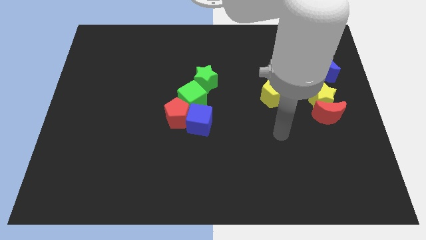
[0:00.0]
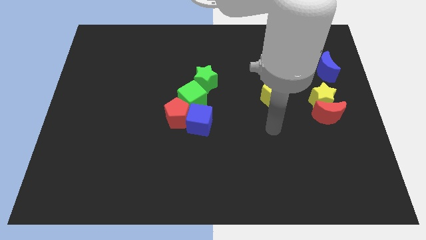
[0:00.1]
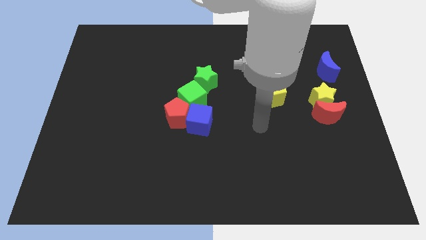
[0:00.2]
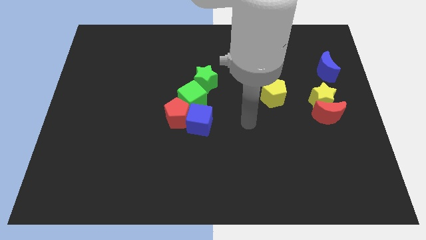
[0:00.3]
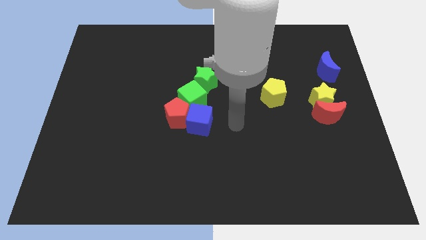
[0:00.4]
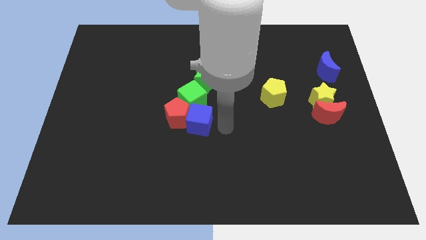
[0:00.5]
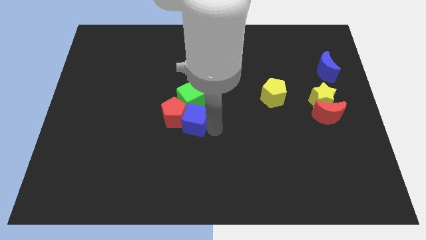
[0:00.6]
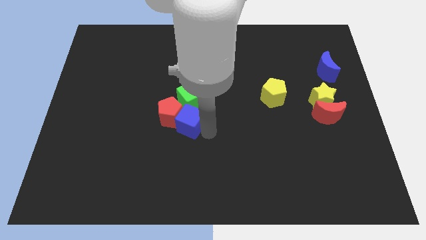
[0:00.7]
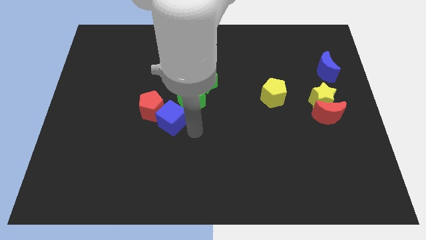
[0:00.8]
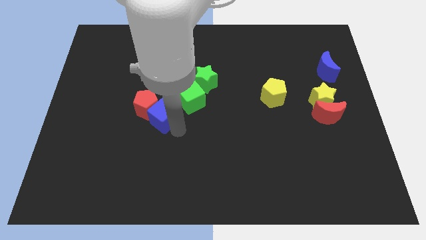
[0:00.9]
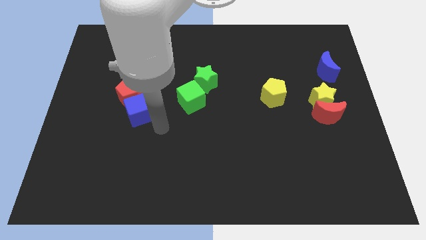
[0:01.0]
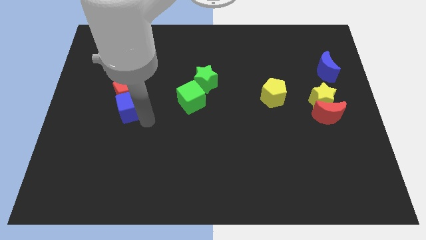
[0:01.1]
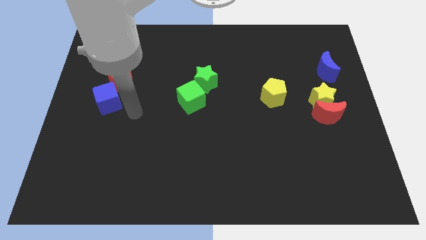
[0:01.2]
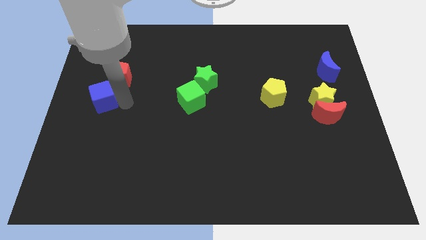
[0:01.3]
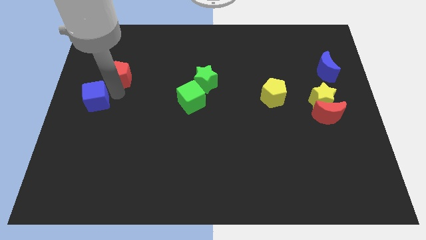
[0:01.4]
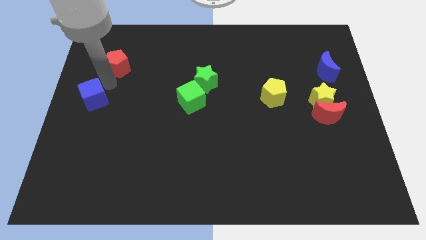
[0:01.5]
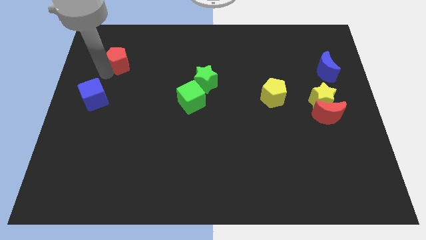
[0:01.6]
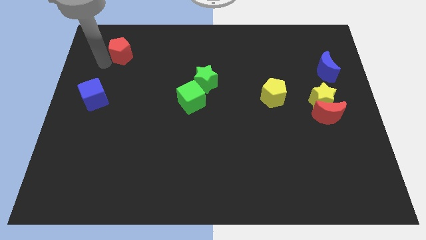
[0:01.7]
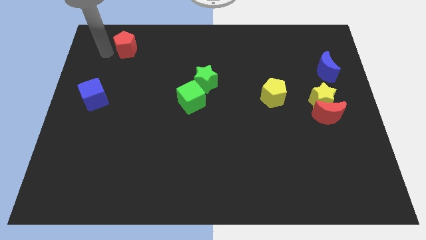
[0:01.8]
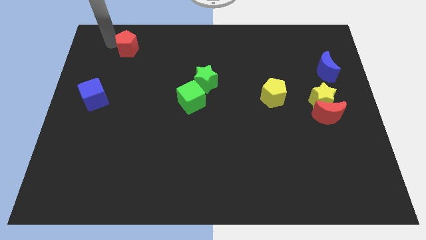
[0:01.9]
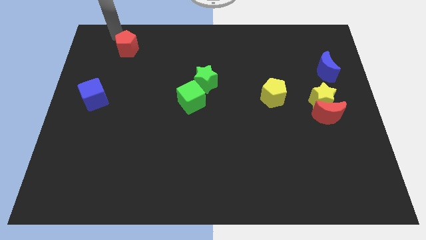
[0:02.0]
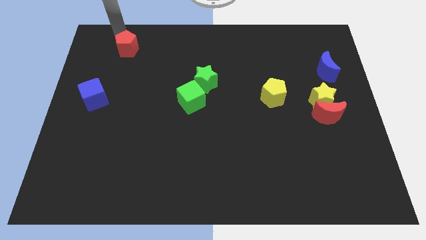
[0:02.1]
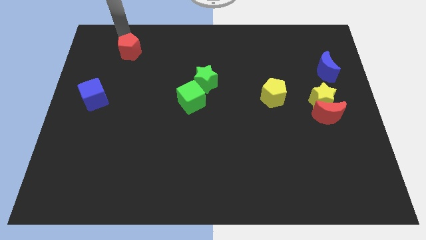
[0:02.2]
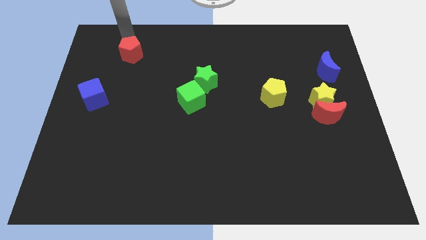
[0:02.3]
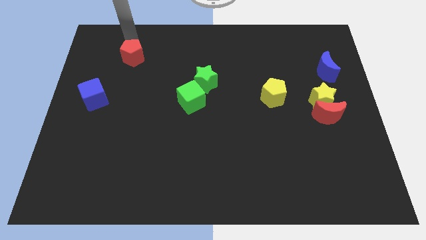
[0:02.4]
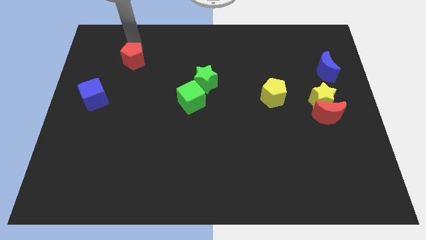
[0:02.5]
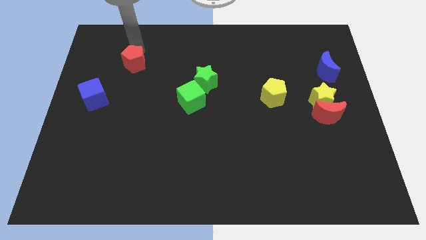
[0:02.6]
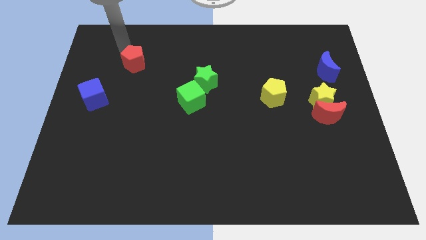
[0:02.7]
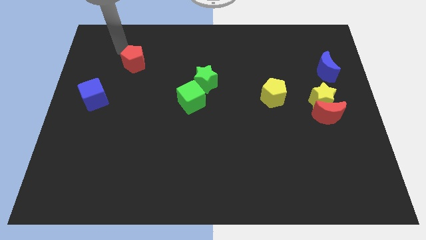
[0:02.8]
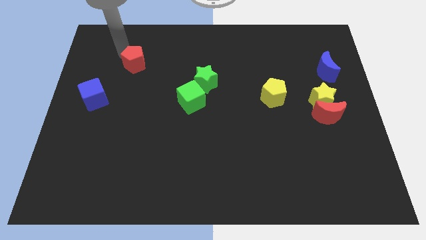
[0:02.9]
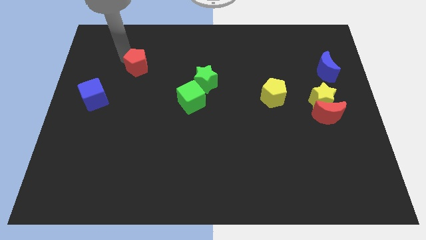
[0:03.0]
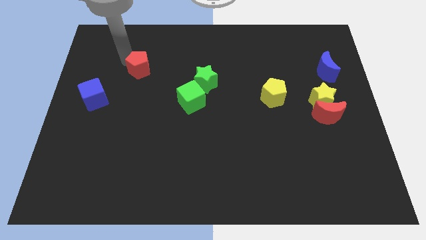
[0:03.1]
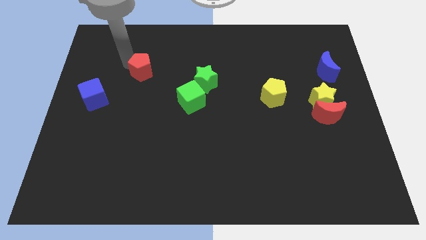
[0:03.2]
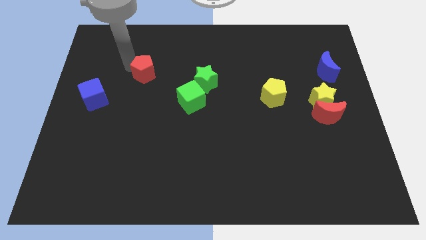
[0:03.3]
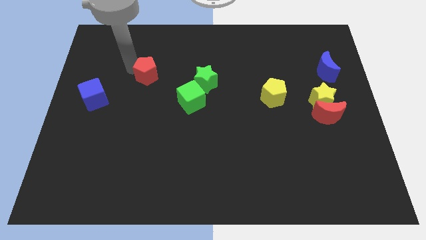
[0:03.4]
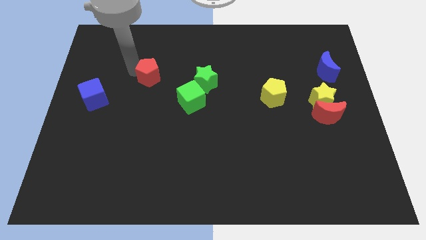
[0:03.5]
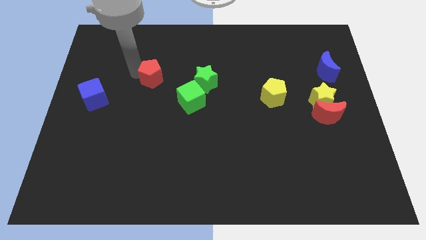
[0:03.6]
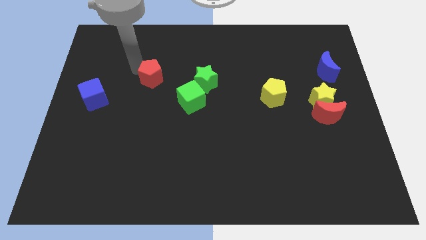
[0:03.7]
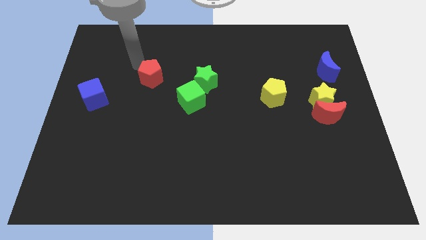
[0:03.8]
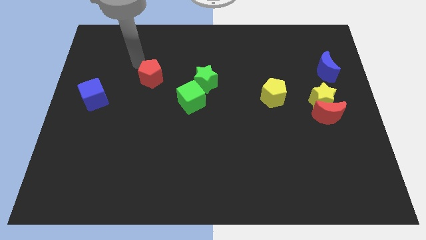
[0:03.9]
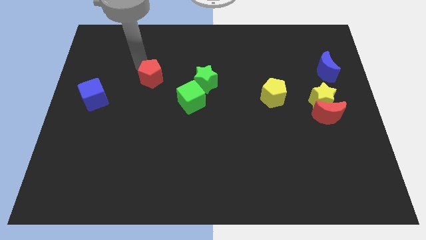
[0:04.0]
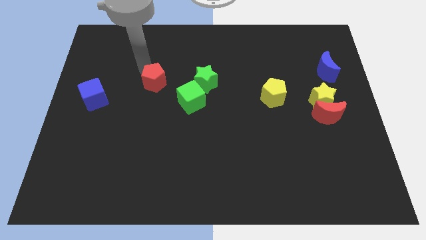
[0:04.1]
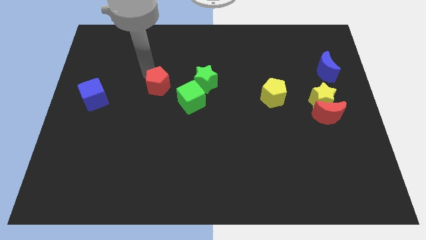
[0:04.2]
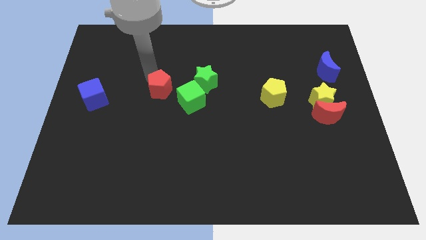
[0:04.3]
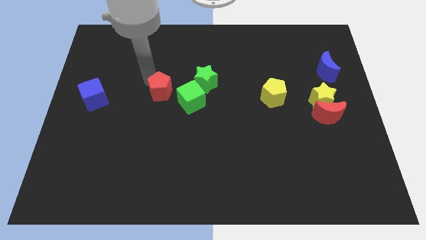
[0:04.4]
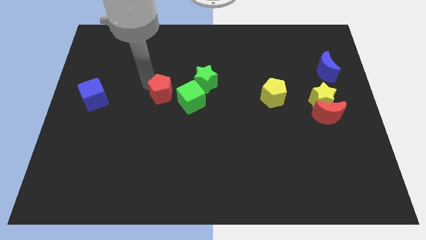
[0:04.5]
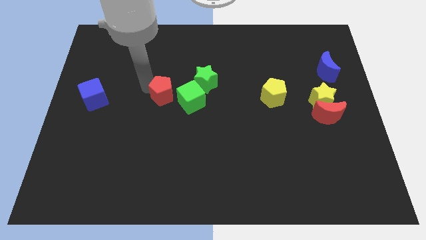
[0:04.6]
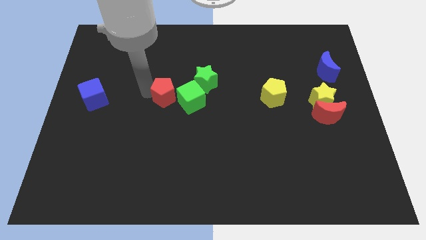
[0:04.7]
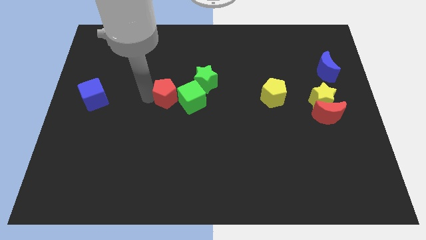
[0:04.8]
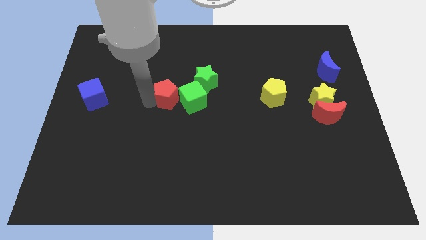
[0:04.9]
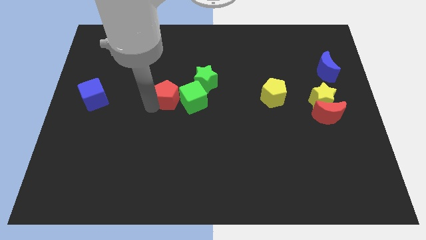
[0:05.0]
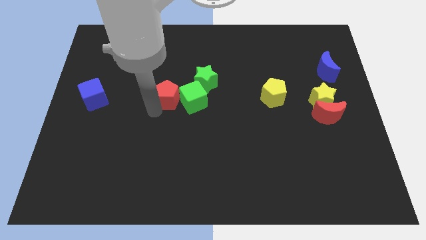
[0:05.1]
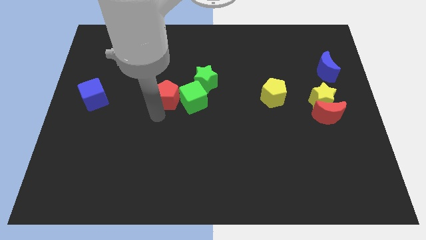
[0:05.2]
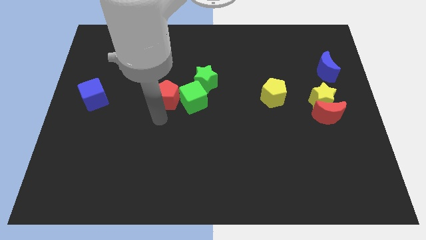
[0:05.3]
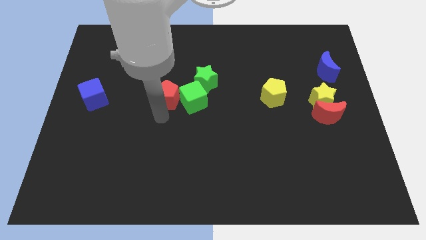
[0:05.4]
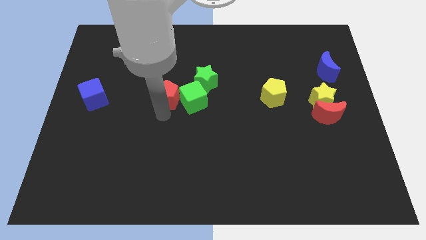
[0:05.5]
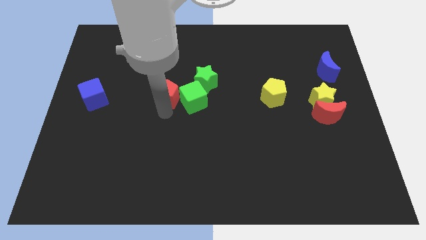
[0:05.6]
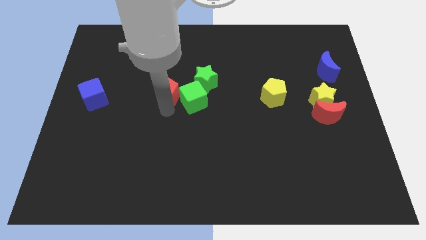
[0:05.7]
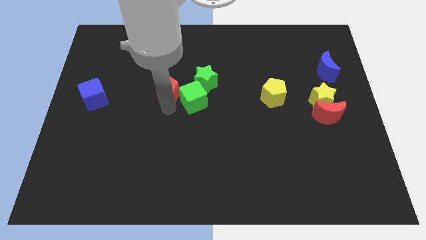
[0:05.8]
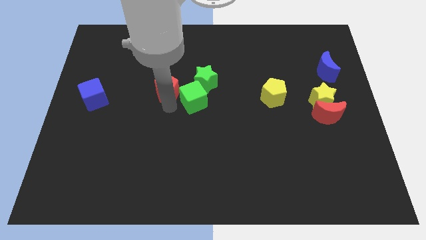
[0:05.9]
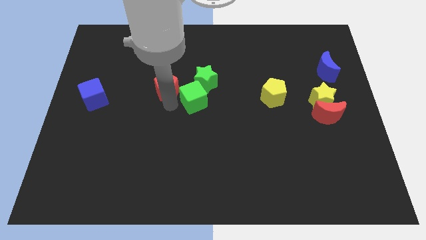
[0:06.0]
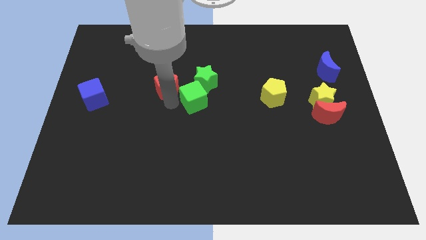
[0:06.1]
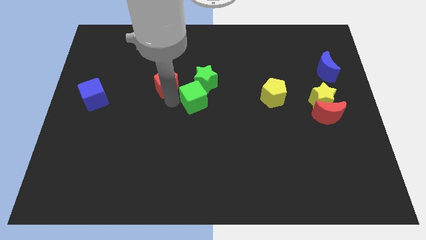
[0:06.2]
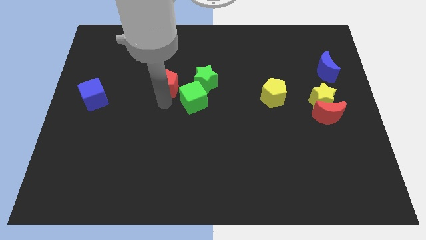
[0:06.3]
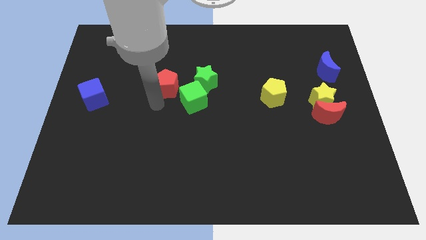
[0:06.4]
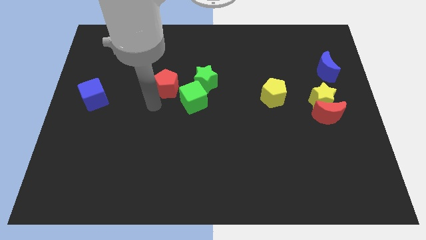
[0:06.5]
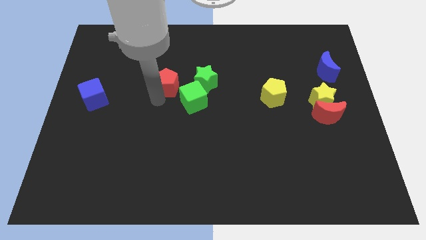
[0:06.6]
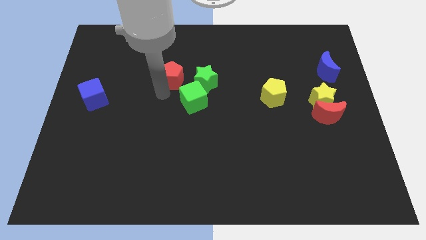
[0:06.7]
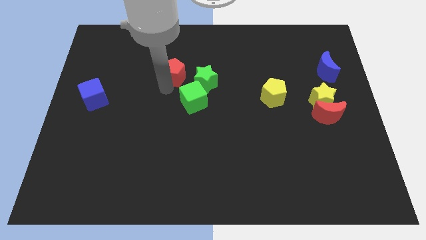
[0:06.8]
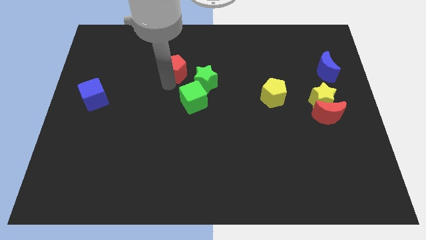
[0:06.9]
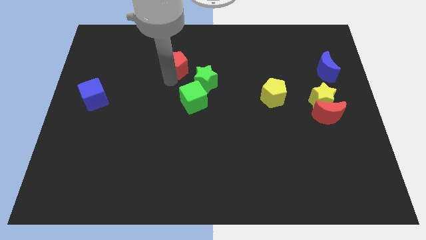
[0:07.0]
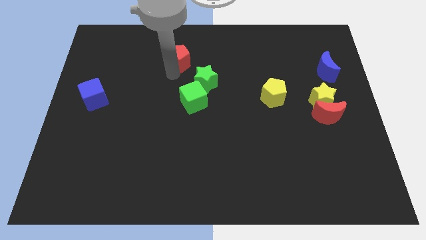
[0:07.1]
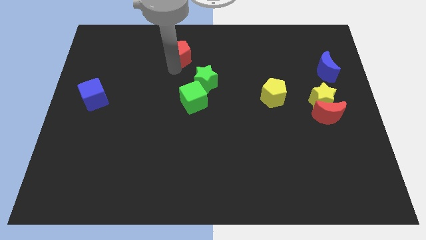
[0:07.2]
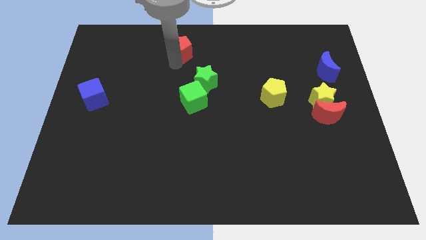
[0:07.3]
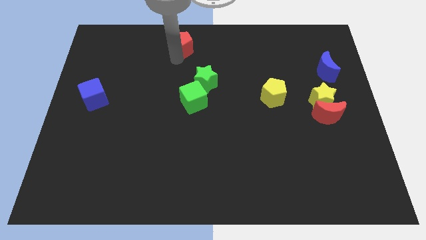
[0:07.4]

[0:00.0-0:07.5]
push the red pentagon to the top
